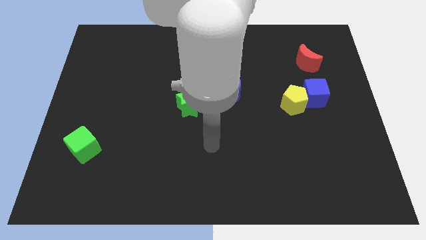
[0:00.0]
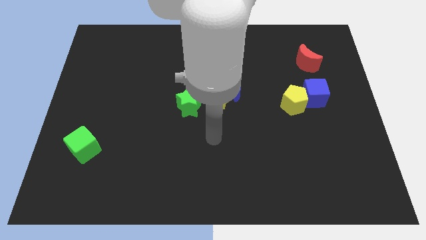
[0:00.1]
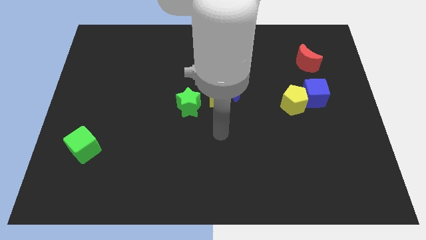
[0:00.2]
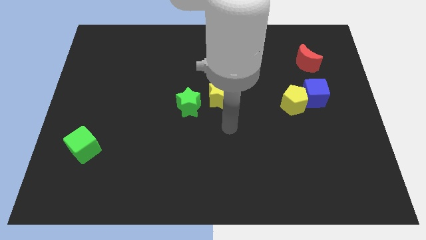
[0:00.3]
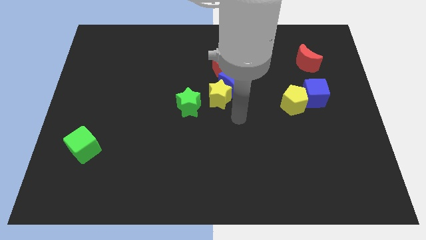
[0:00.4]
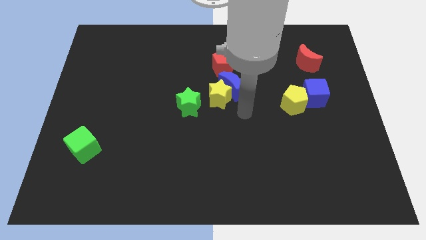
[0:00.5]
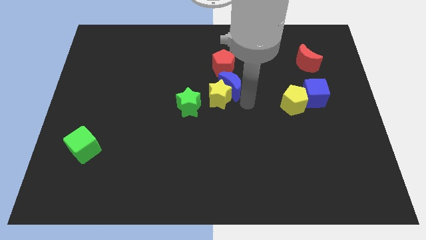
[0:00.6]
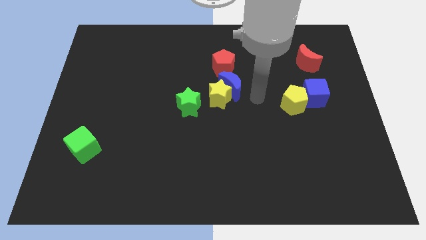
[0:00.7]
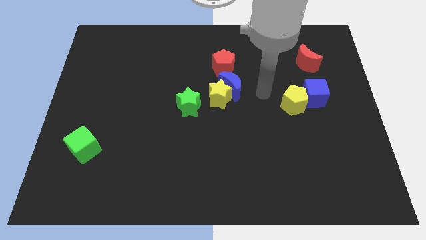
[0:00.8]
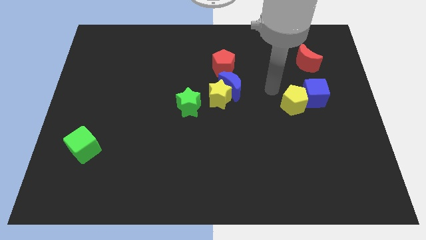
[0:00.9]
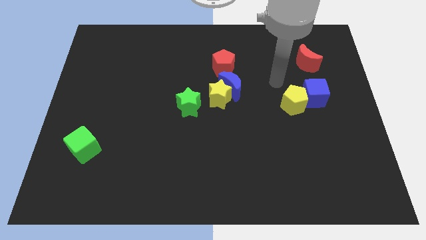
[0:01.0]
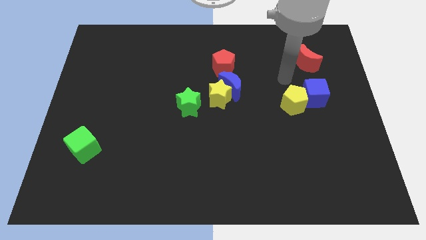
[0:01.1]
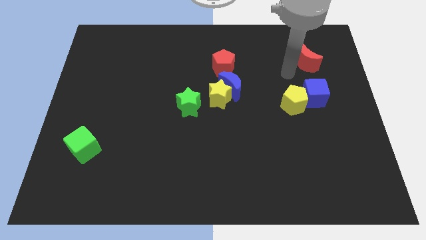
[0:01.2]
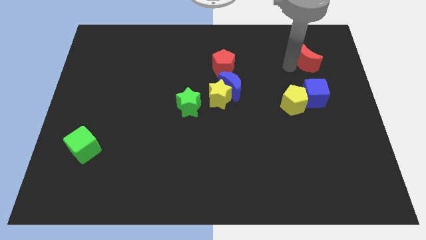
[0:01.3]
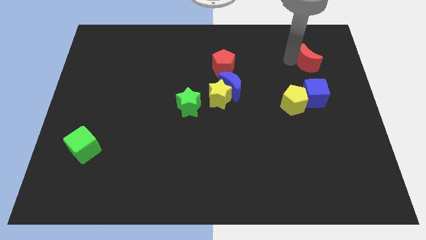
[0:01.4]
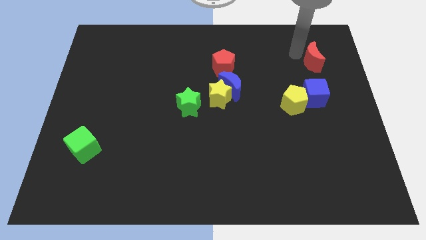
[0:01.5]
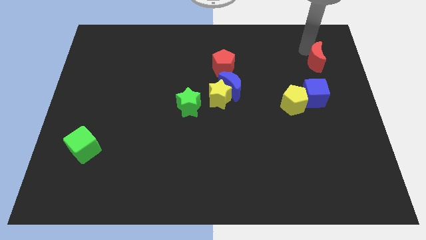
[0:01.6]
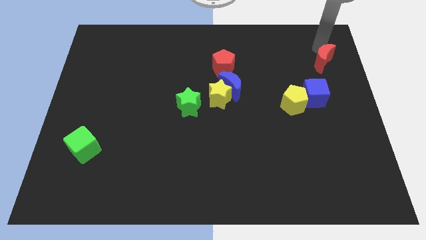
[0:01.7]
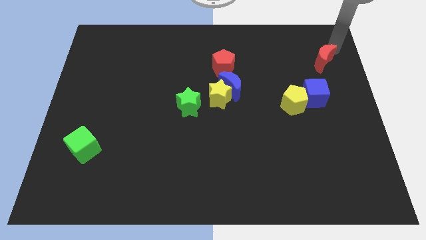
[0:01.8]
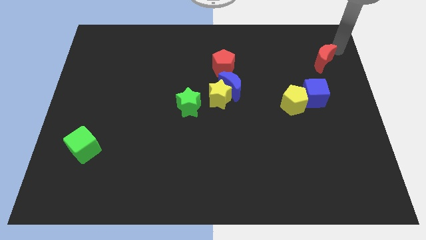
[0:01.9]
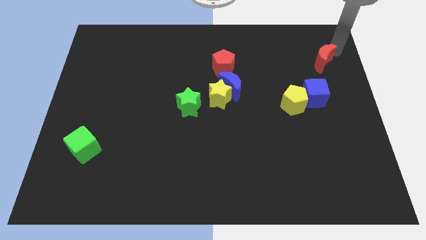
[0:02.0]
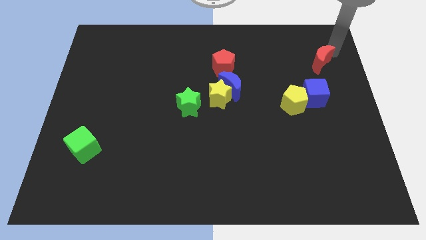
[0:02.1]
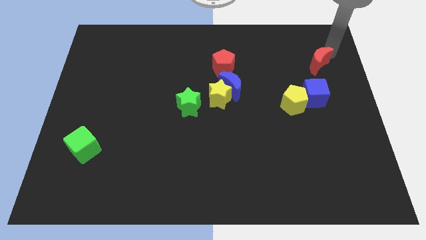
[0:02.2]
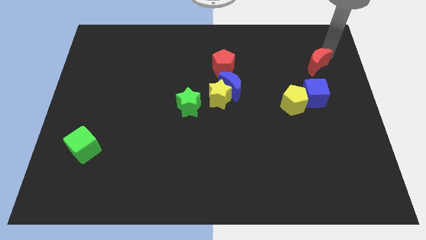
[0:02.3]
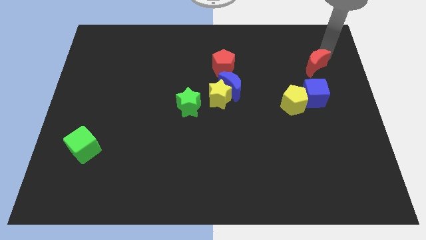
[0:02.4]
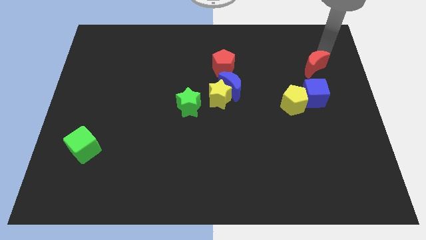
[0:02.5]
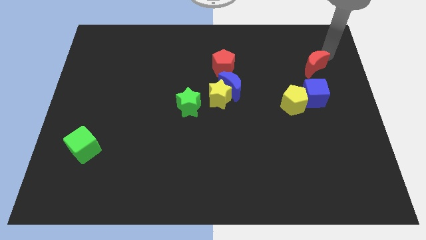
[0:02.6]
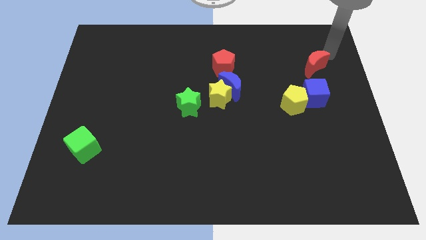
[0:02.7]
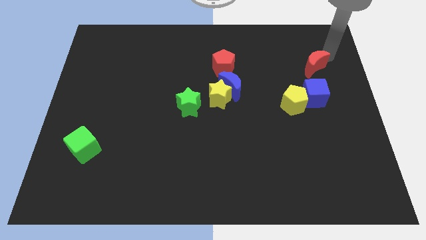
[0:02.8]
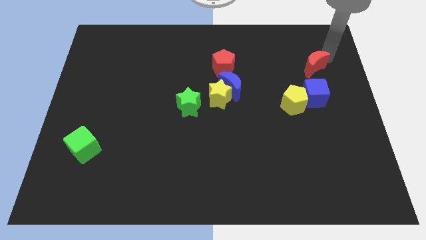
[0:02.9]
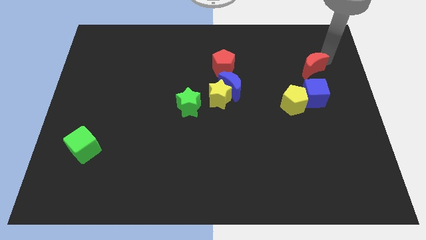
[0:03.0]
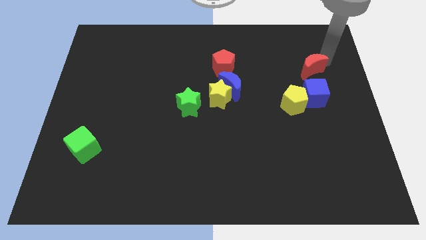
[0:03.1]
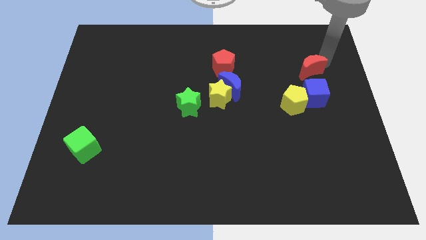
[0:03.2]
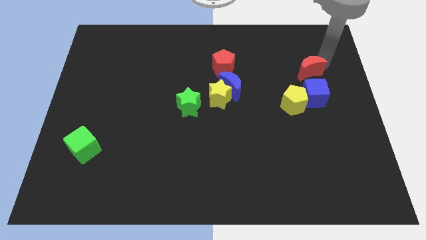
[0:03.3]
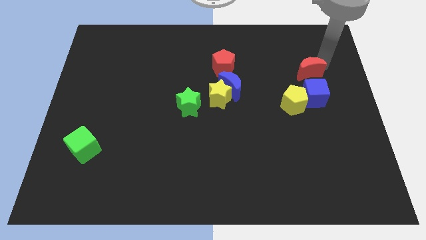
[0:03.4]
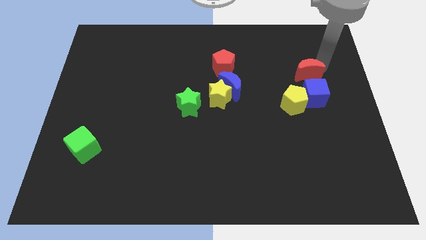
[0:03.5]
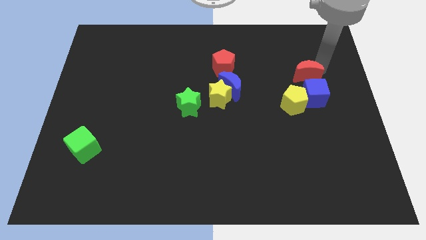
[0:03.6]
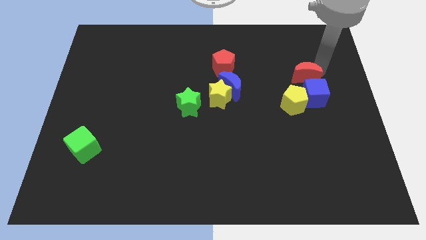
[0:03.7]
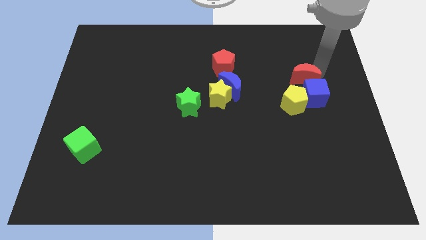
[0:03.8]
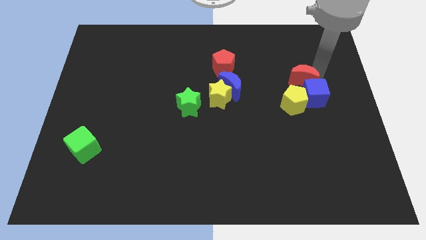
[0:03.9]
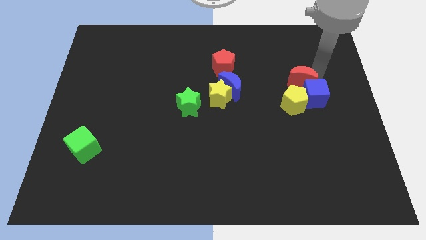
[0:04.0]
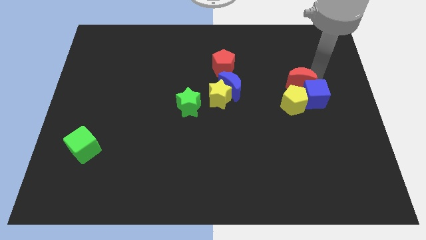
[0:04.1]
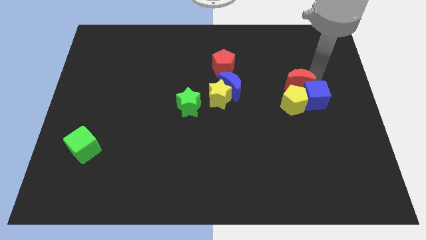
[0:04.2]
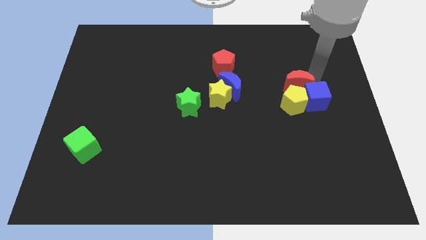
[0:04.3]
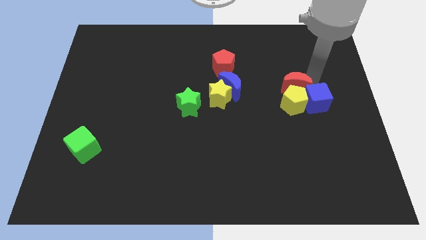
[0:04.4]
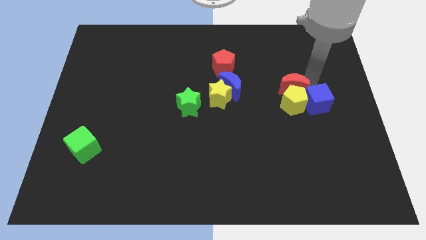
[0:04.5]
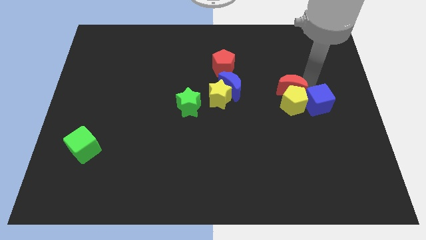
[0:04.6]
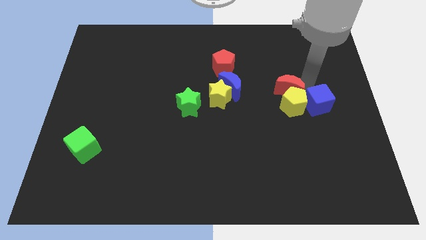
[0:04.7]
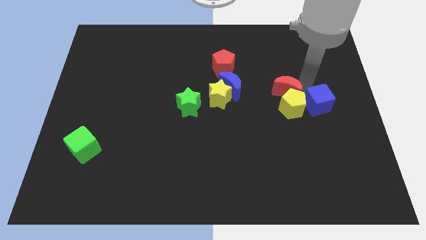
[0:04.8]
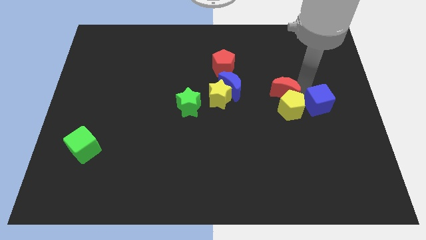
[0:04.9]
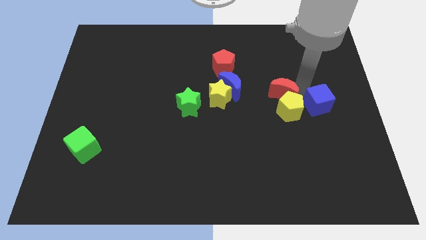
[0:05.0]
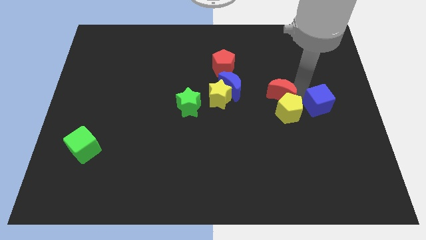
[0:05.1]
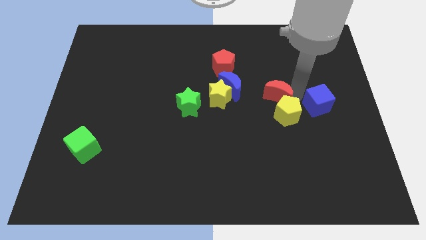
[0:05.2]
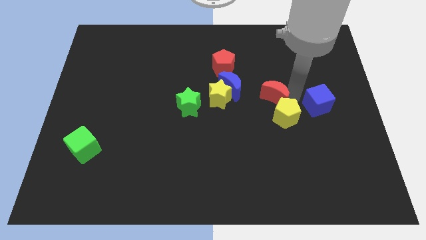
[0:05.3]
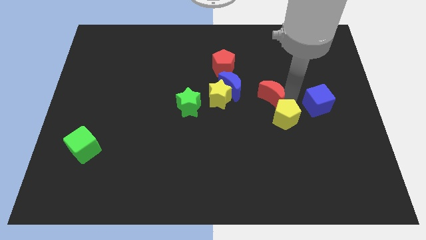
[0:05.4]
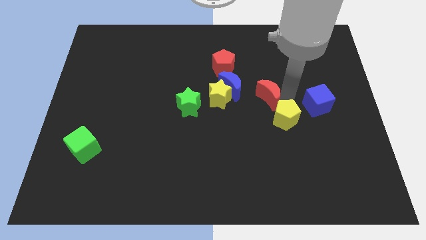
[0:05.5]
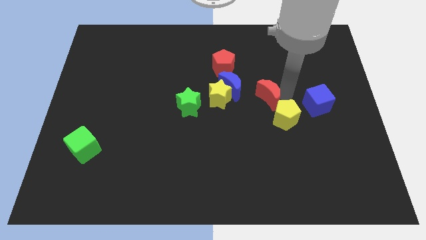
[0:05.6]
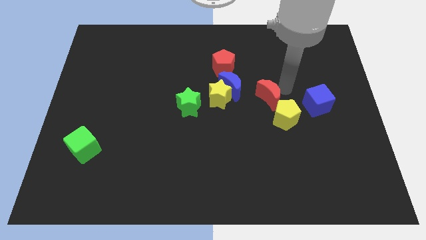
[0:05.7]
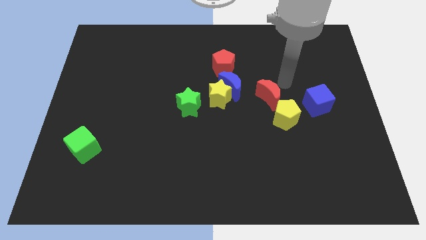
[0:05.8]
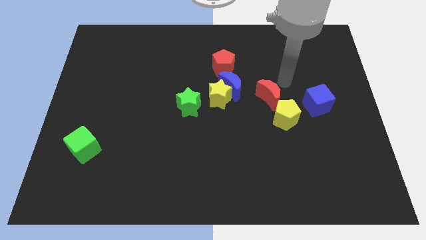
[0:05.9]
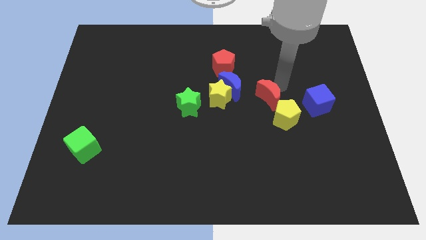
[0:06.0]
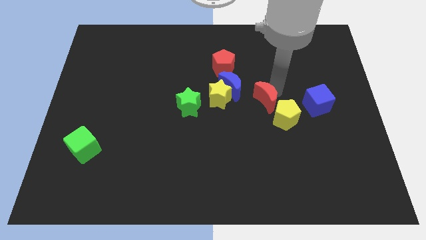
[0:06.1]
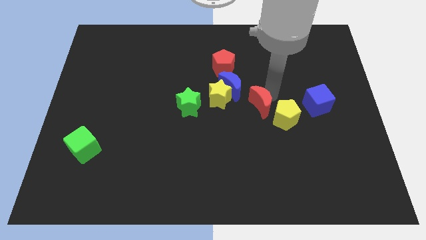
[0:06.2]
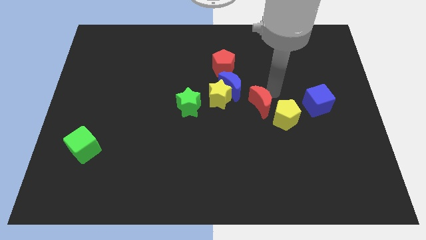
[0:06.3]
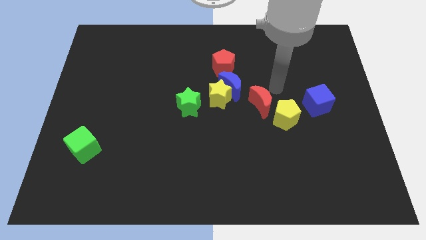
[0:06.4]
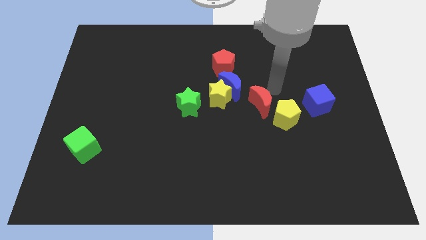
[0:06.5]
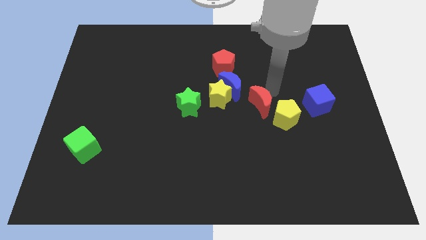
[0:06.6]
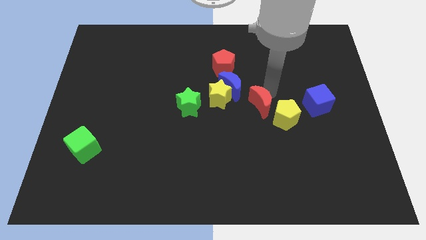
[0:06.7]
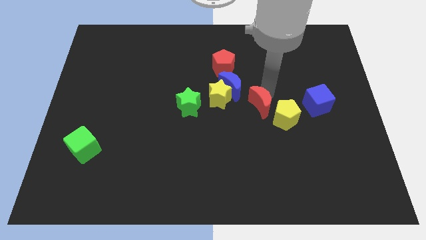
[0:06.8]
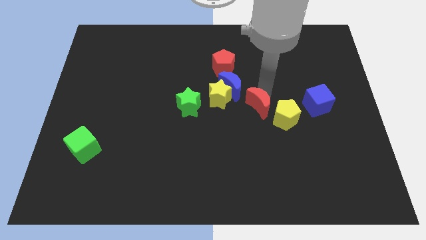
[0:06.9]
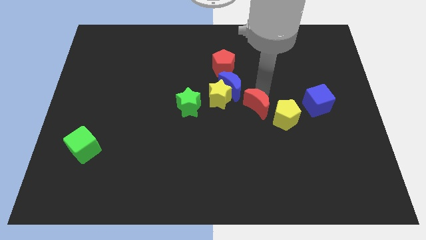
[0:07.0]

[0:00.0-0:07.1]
slide the red moon diagonally downwards and left

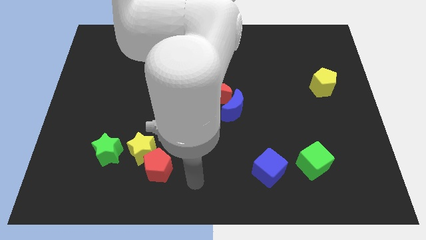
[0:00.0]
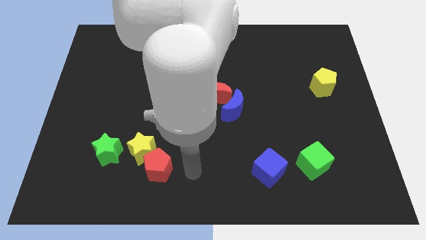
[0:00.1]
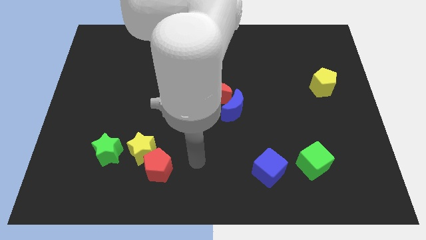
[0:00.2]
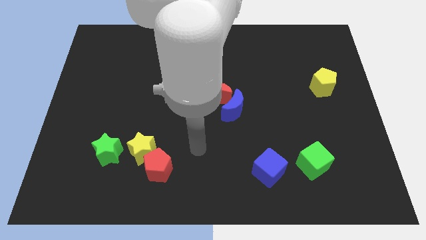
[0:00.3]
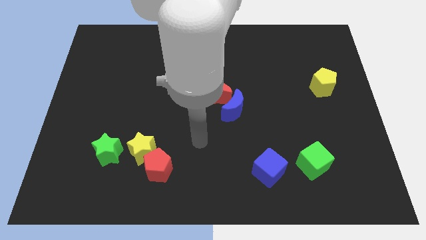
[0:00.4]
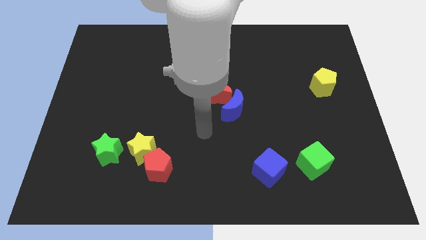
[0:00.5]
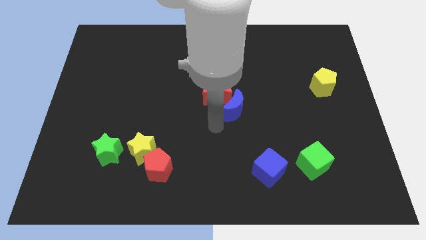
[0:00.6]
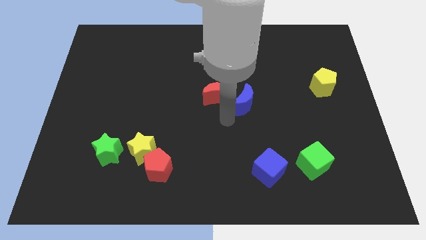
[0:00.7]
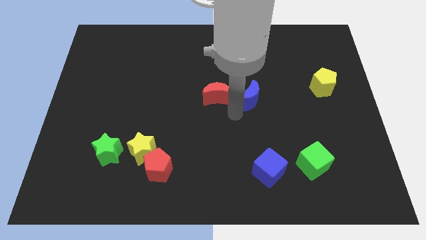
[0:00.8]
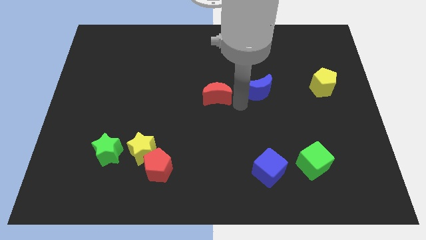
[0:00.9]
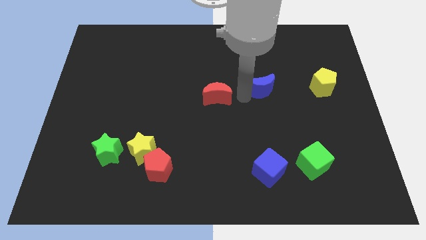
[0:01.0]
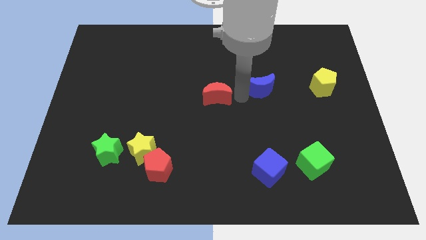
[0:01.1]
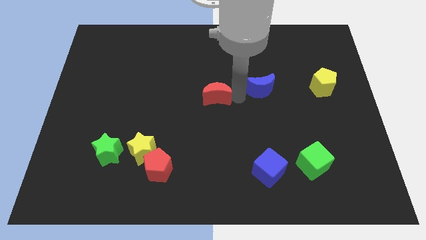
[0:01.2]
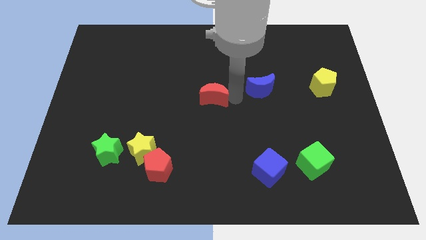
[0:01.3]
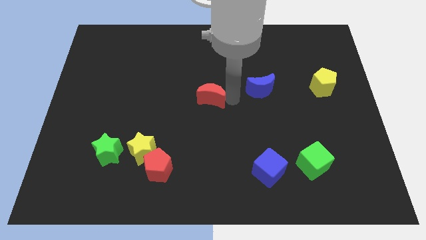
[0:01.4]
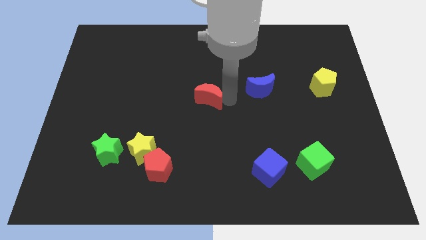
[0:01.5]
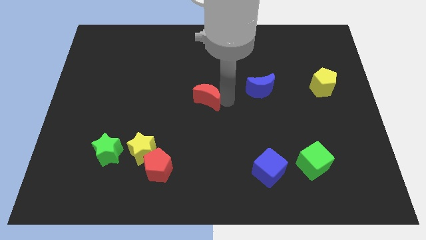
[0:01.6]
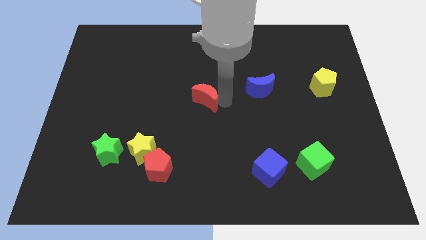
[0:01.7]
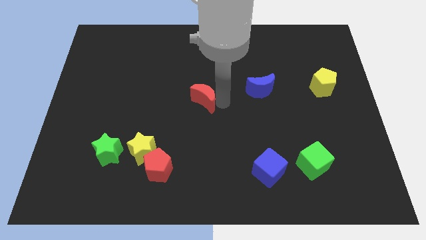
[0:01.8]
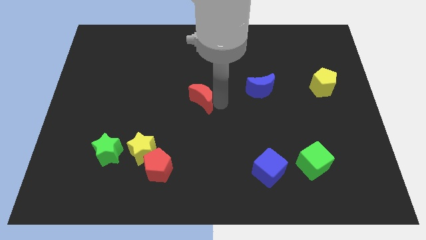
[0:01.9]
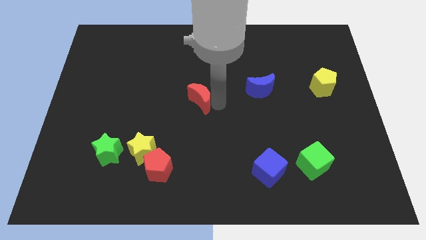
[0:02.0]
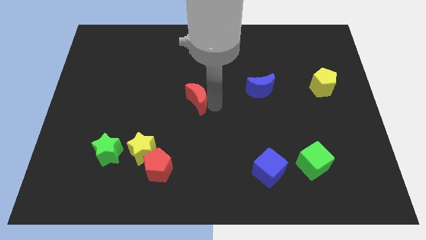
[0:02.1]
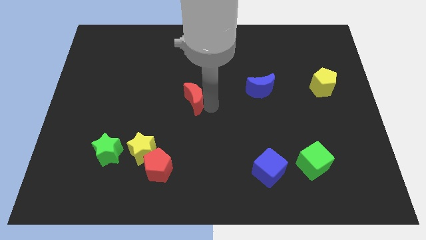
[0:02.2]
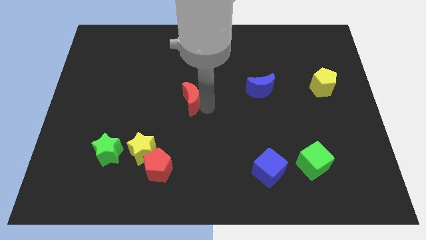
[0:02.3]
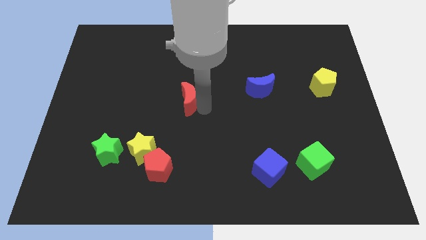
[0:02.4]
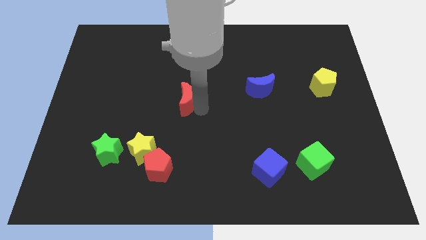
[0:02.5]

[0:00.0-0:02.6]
move the red moon left somewhat
